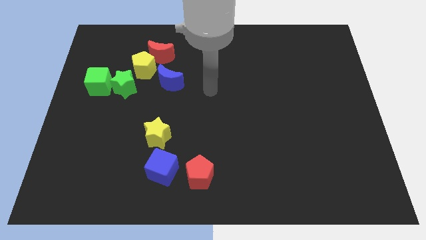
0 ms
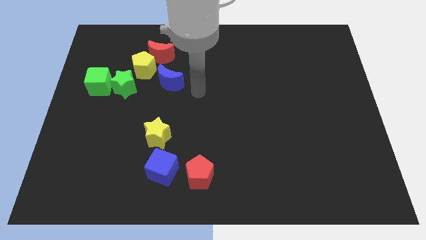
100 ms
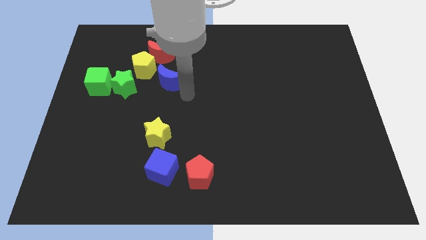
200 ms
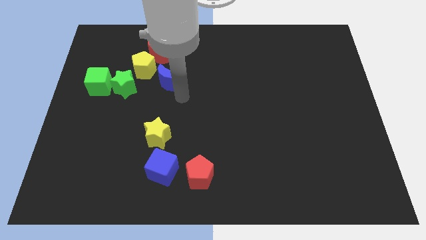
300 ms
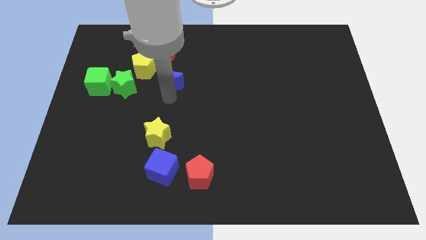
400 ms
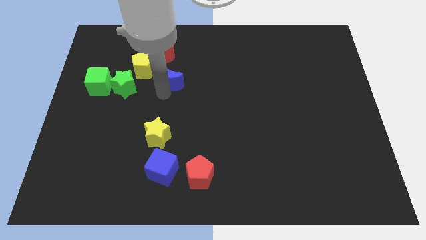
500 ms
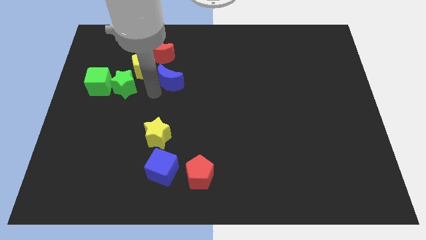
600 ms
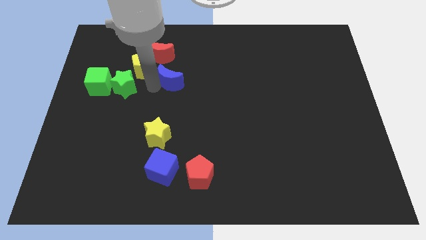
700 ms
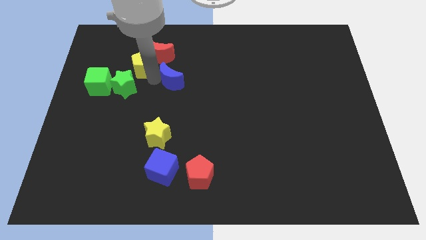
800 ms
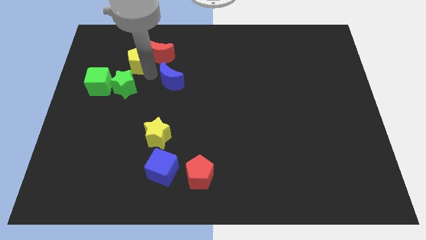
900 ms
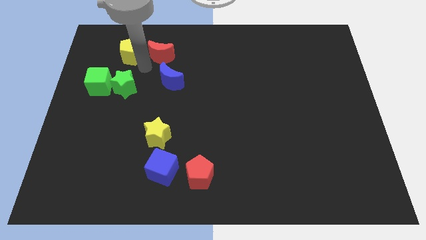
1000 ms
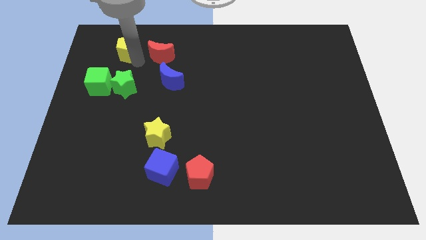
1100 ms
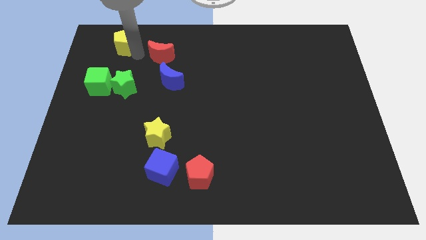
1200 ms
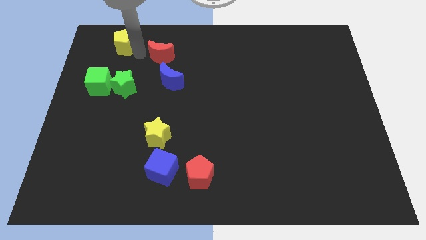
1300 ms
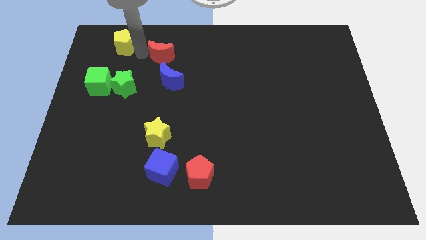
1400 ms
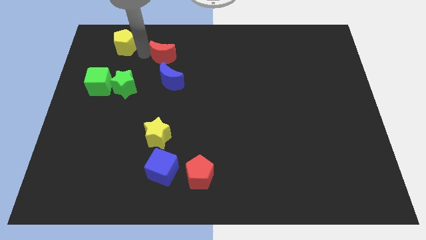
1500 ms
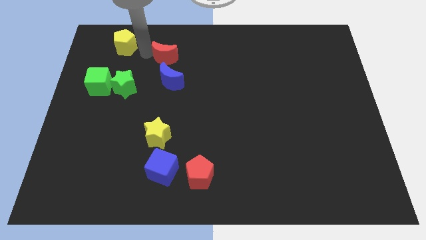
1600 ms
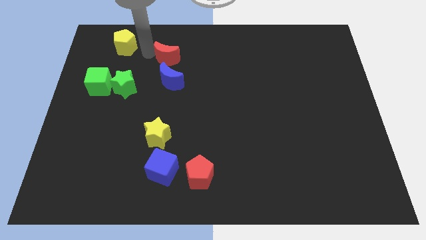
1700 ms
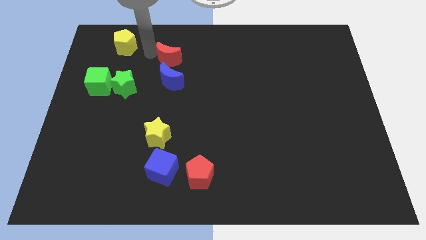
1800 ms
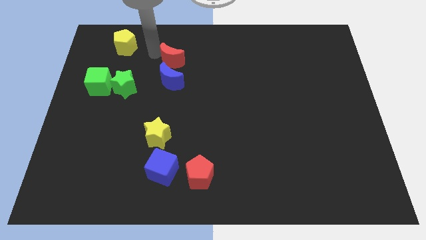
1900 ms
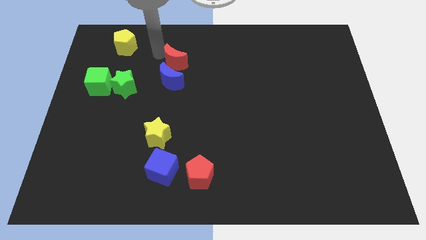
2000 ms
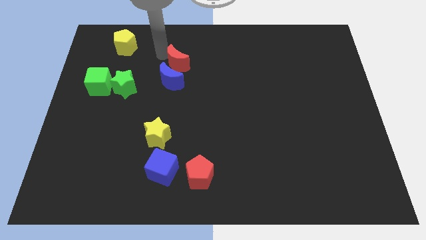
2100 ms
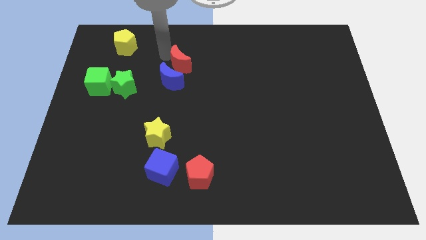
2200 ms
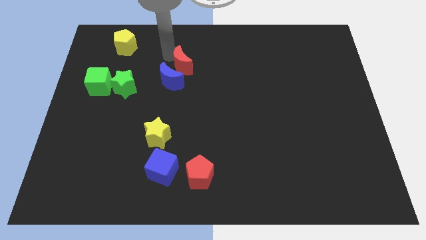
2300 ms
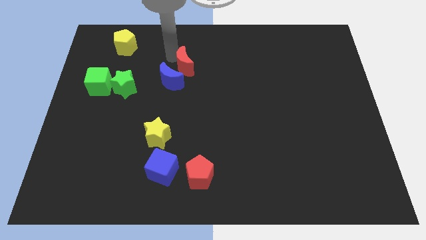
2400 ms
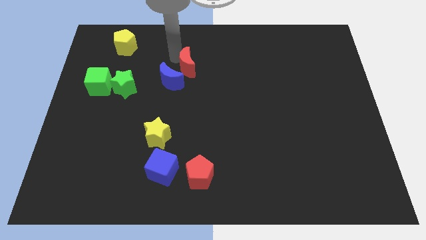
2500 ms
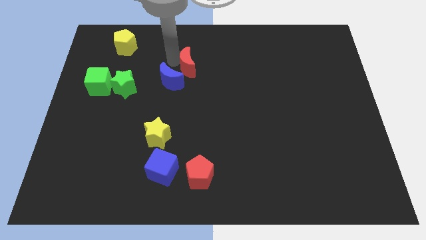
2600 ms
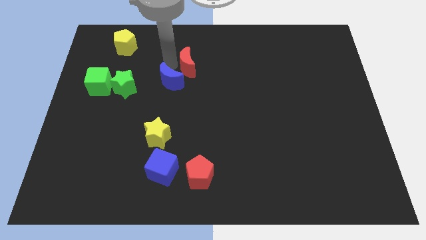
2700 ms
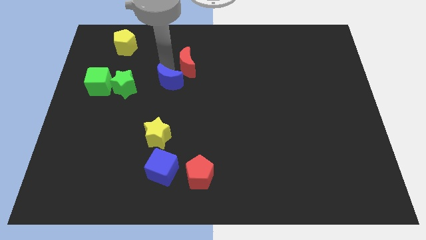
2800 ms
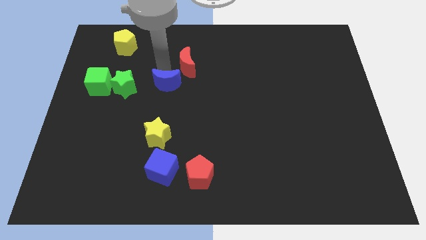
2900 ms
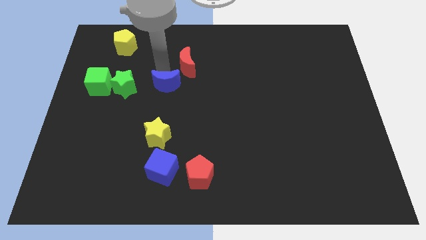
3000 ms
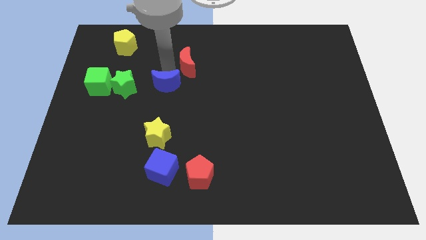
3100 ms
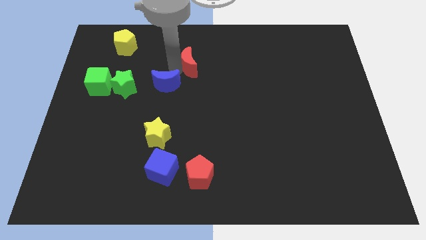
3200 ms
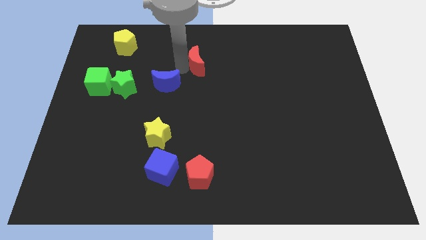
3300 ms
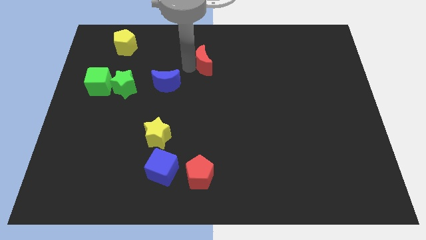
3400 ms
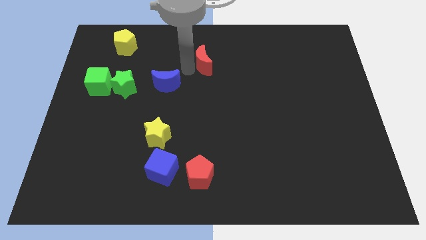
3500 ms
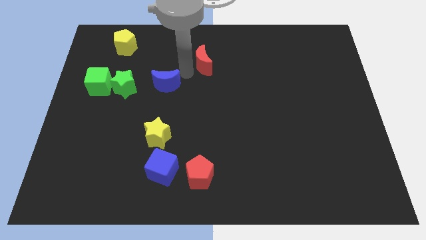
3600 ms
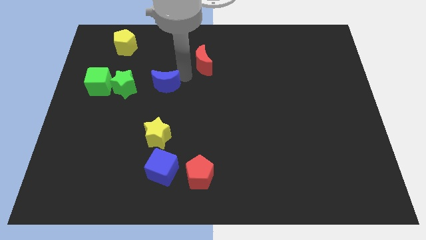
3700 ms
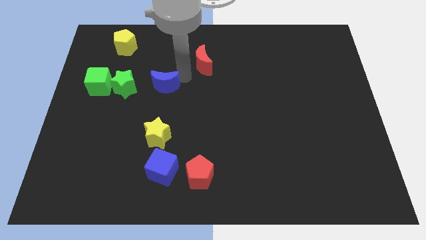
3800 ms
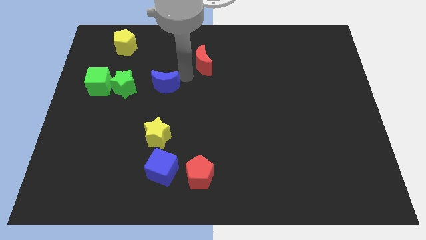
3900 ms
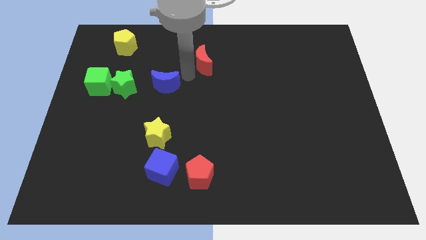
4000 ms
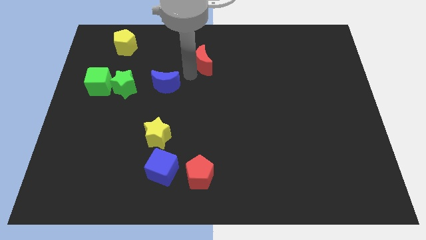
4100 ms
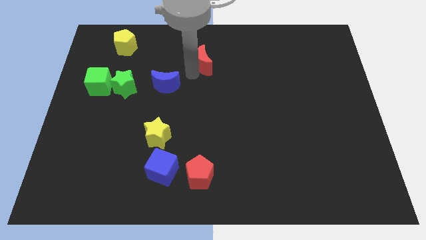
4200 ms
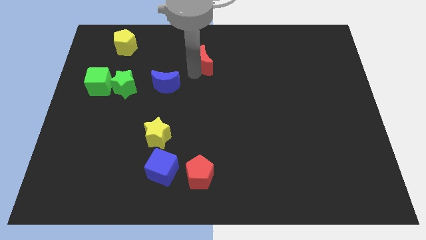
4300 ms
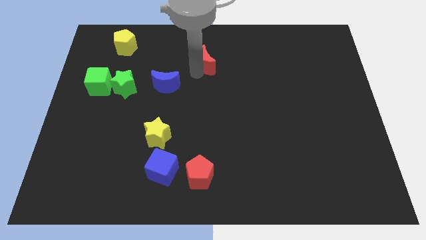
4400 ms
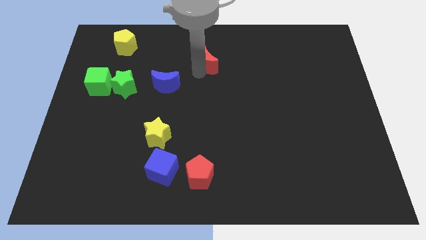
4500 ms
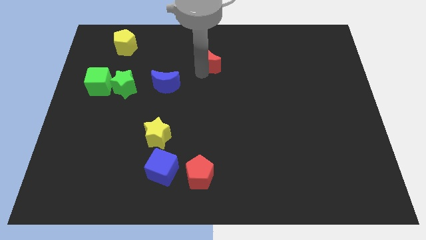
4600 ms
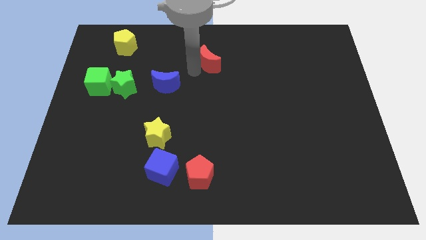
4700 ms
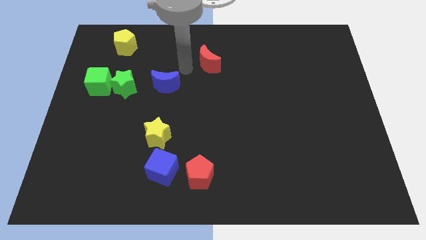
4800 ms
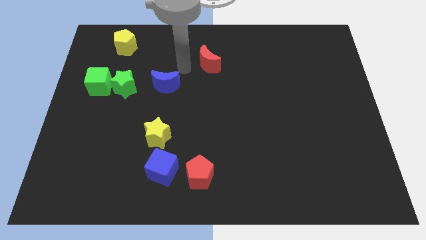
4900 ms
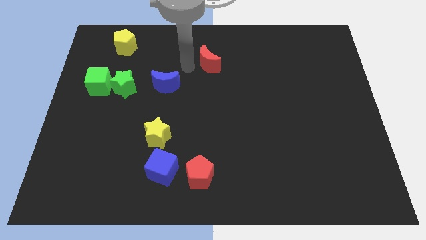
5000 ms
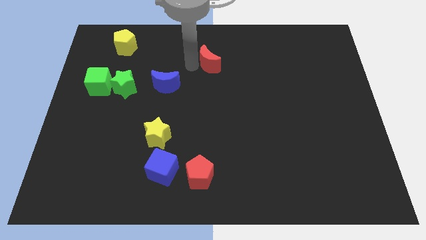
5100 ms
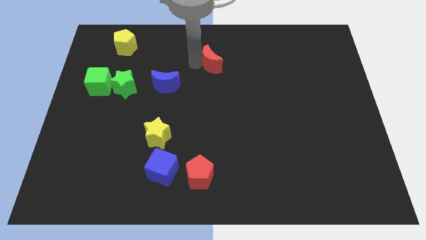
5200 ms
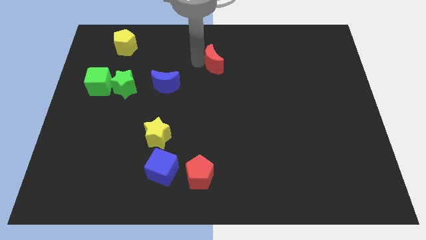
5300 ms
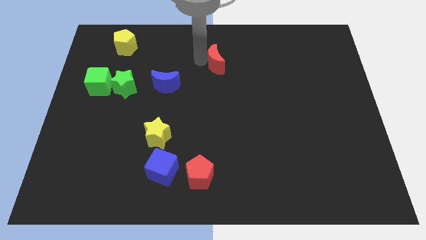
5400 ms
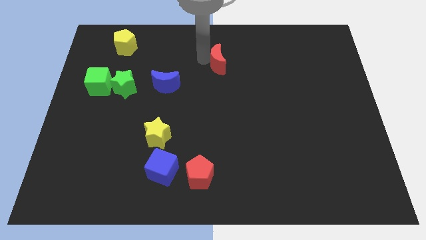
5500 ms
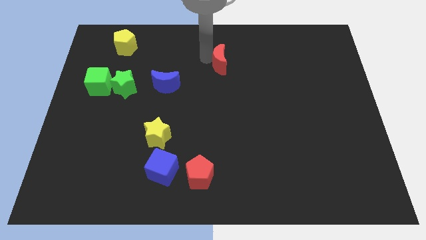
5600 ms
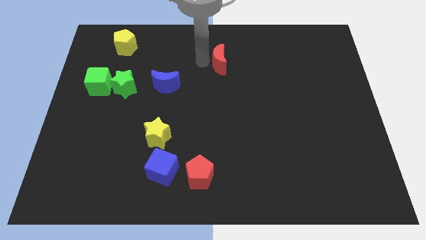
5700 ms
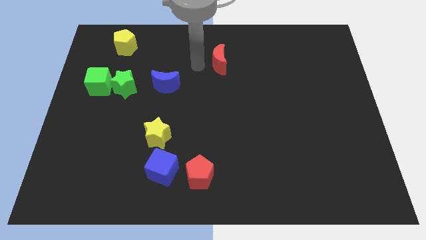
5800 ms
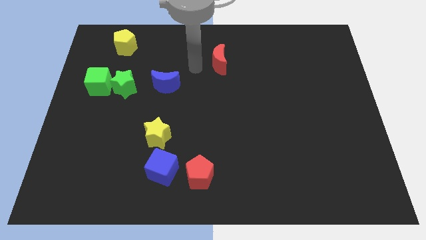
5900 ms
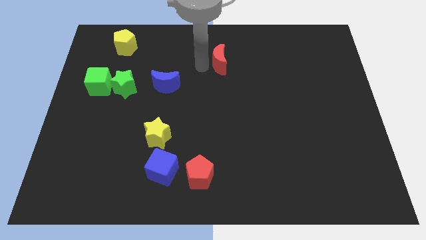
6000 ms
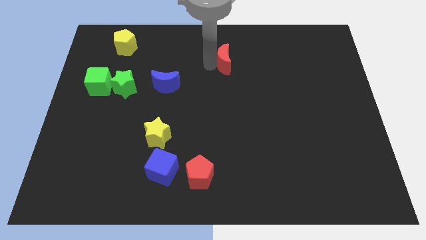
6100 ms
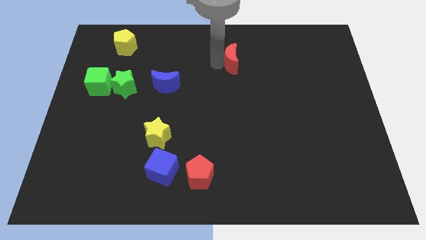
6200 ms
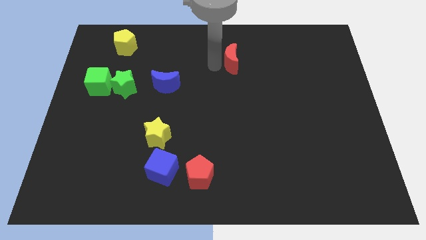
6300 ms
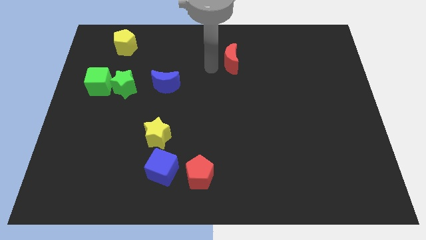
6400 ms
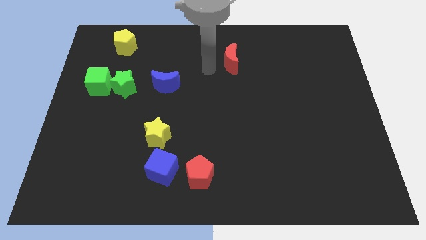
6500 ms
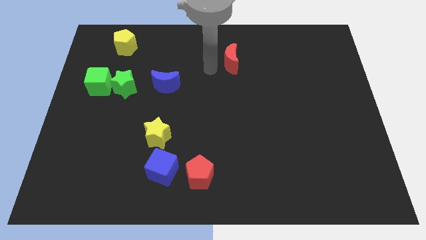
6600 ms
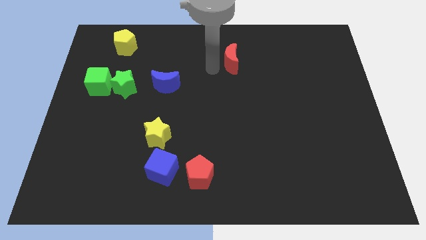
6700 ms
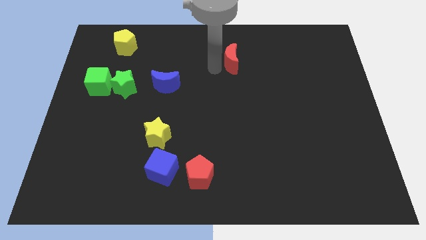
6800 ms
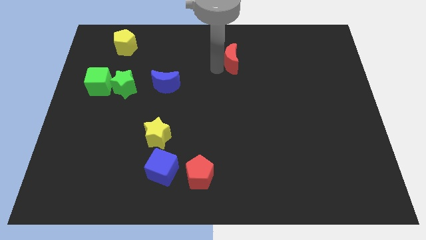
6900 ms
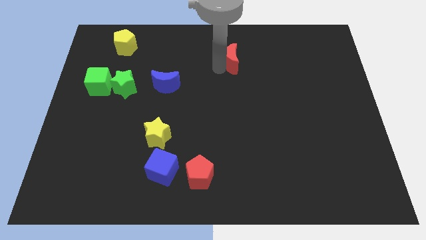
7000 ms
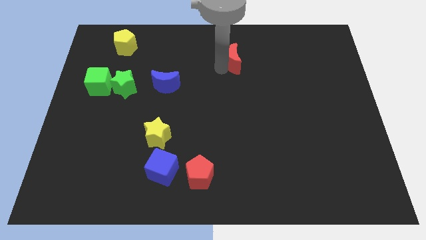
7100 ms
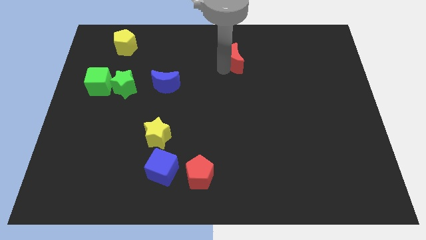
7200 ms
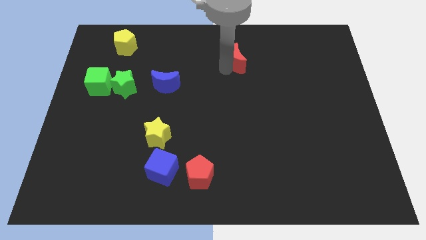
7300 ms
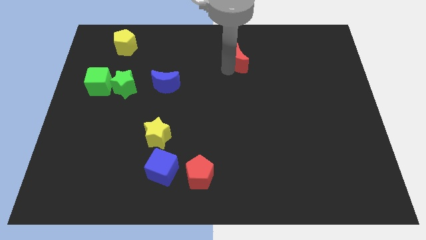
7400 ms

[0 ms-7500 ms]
move the red moon right

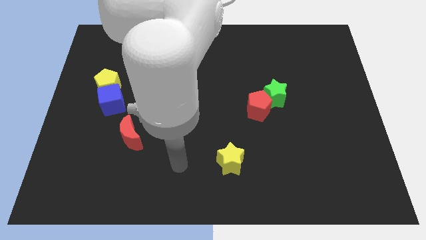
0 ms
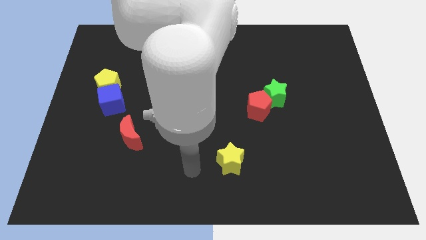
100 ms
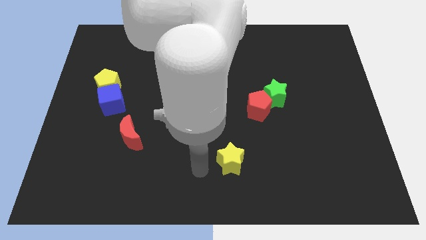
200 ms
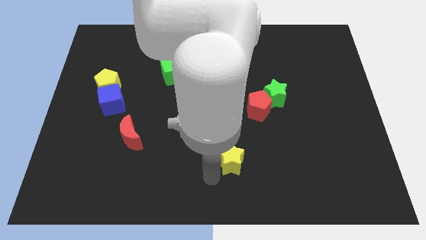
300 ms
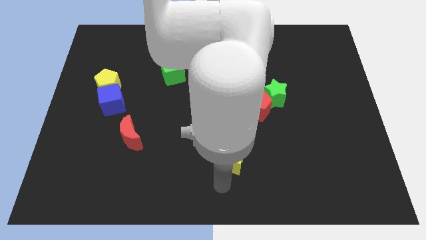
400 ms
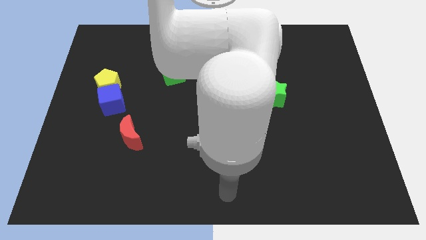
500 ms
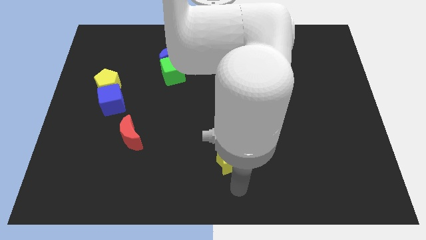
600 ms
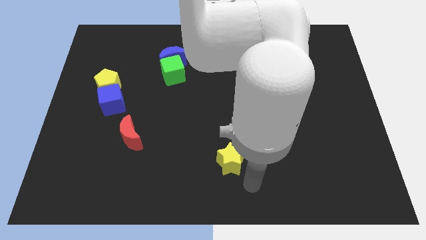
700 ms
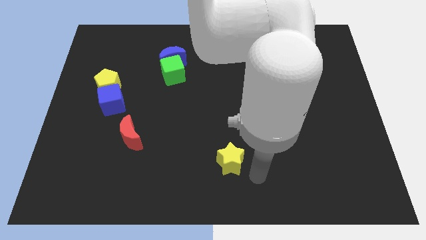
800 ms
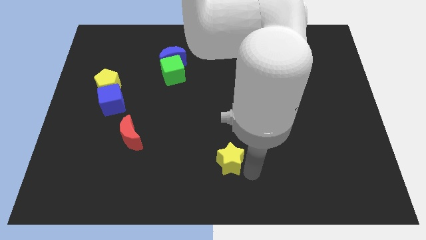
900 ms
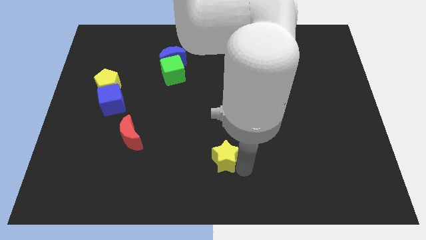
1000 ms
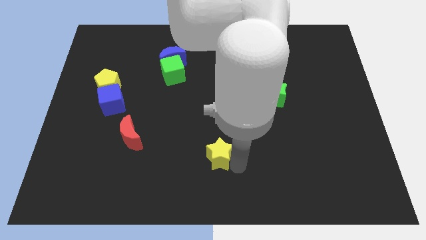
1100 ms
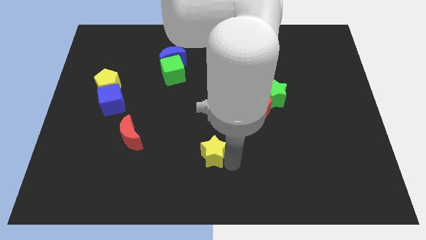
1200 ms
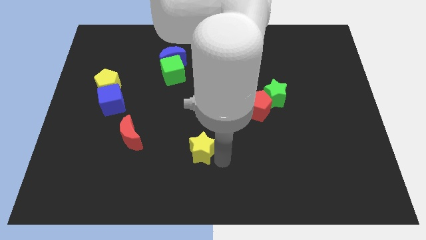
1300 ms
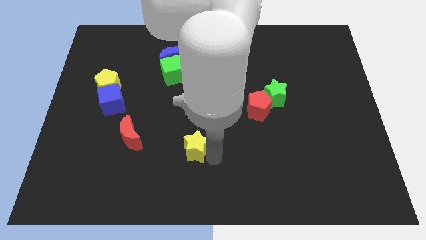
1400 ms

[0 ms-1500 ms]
slightly slide the yellow star upwards and then to the left
